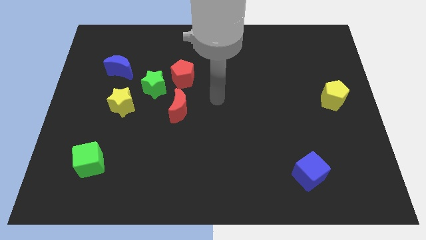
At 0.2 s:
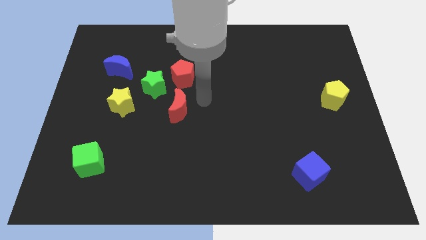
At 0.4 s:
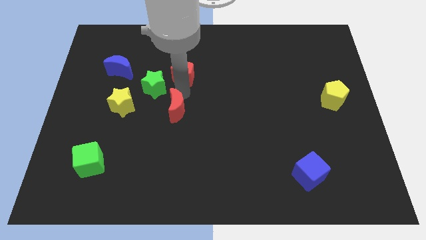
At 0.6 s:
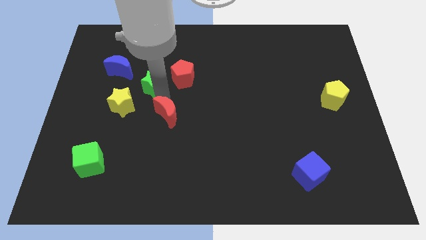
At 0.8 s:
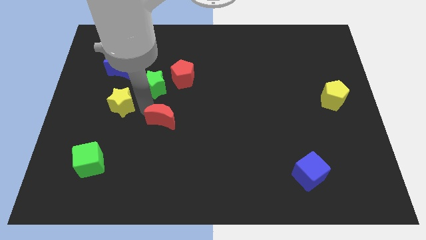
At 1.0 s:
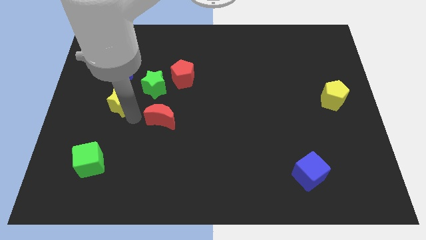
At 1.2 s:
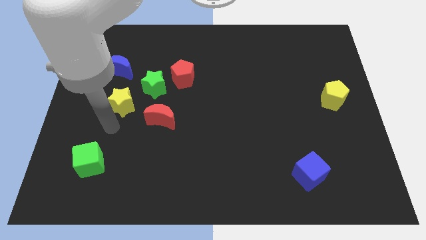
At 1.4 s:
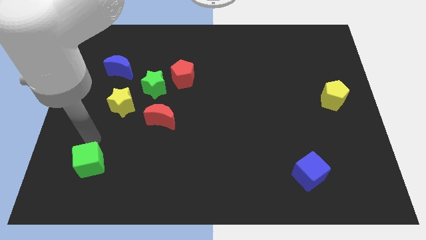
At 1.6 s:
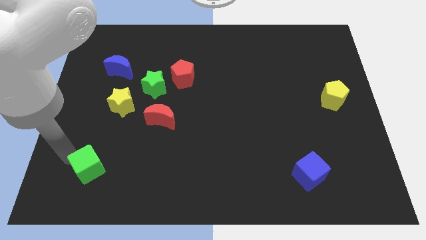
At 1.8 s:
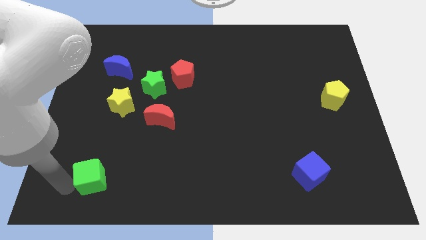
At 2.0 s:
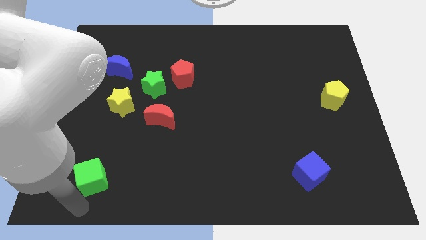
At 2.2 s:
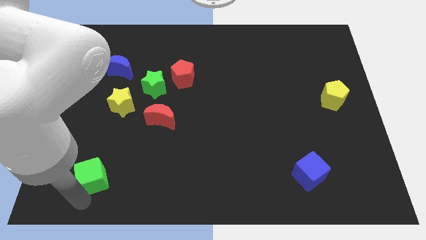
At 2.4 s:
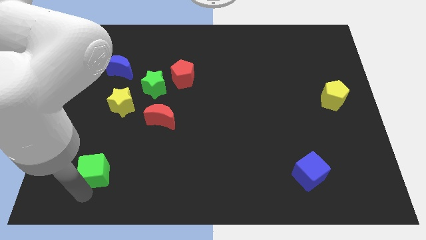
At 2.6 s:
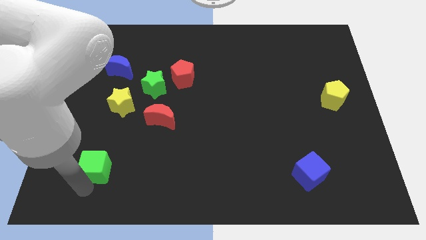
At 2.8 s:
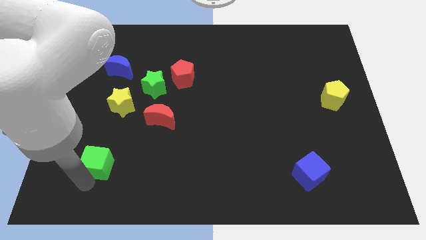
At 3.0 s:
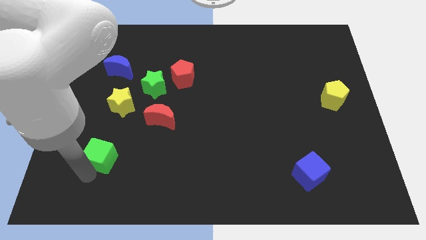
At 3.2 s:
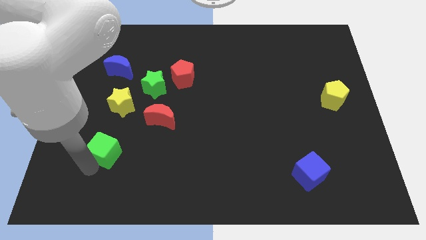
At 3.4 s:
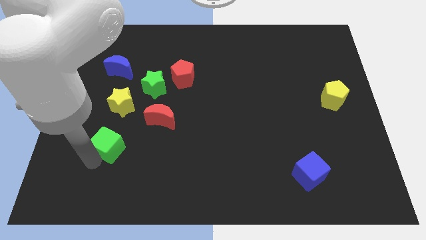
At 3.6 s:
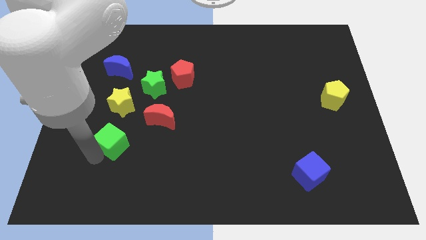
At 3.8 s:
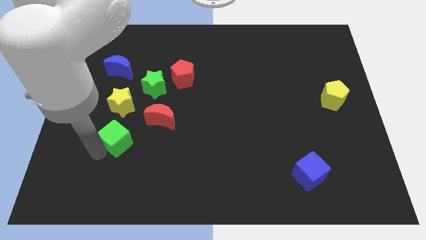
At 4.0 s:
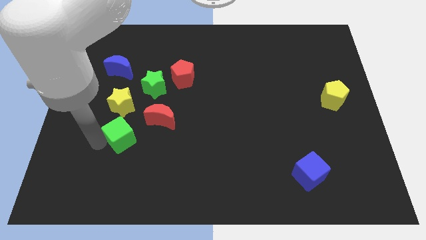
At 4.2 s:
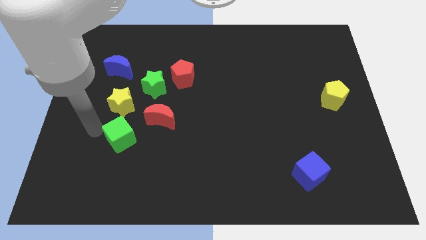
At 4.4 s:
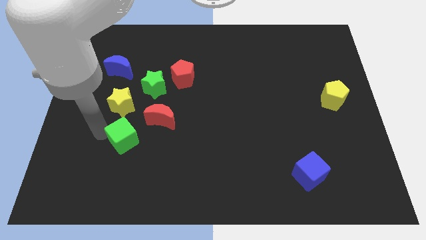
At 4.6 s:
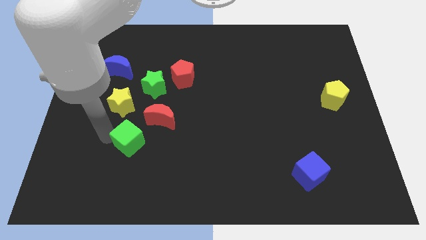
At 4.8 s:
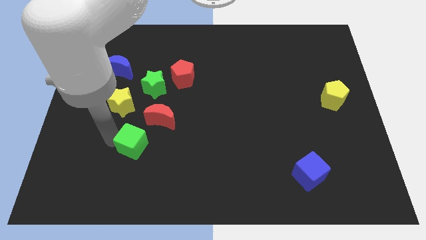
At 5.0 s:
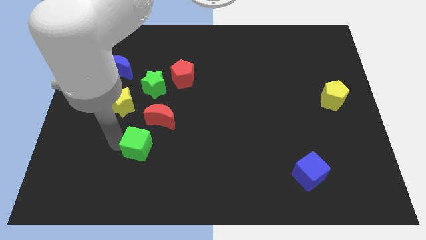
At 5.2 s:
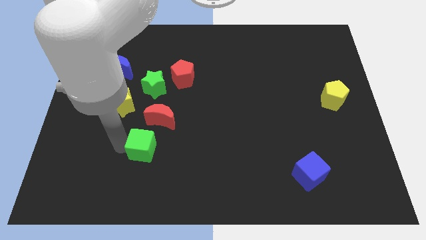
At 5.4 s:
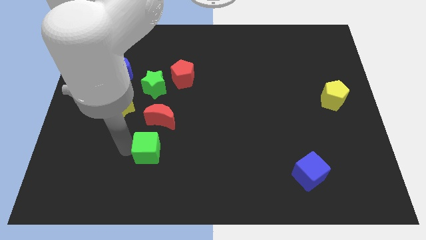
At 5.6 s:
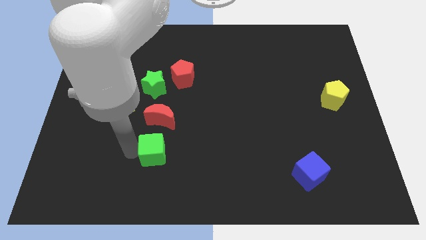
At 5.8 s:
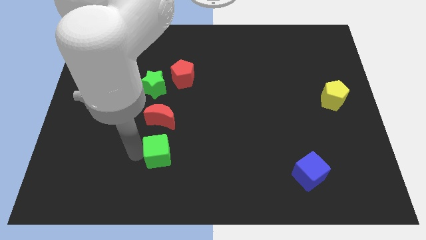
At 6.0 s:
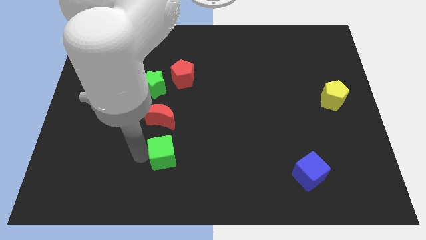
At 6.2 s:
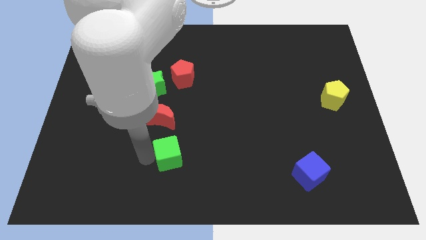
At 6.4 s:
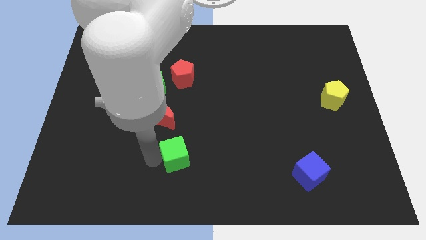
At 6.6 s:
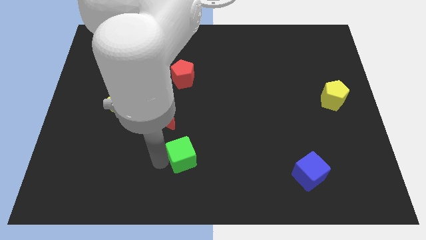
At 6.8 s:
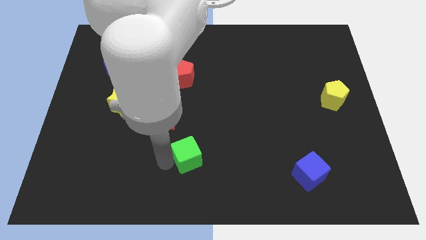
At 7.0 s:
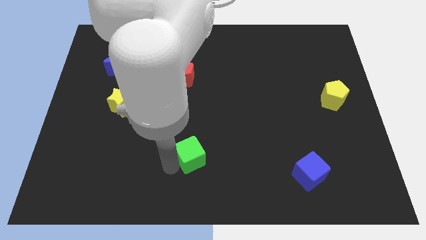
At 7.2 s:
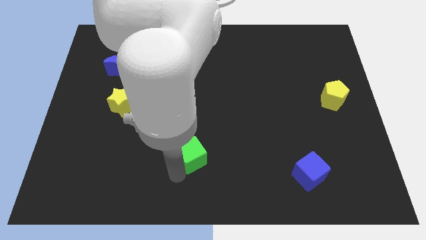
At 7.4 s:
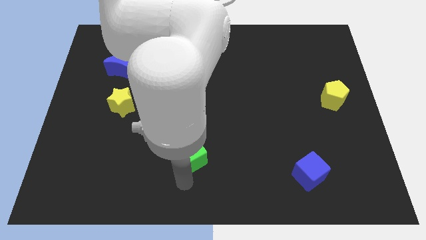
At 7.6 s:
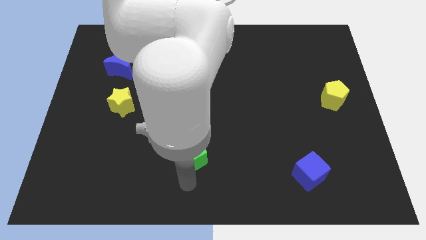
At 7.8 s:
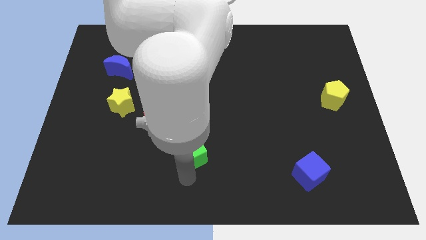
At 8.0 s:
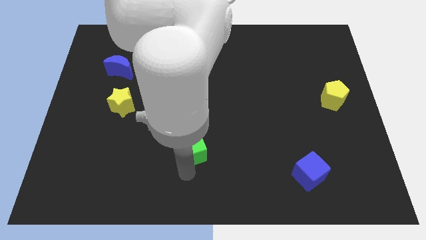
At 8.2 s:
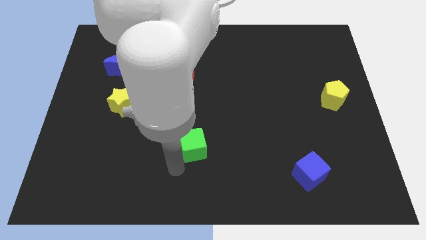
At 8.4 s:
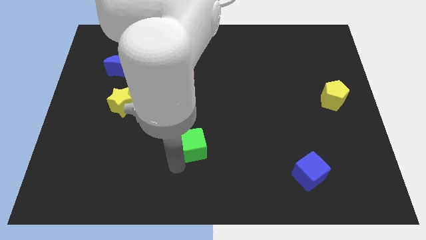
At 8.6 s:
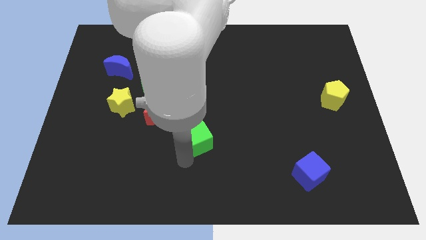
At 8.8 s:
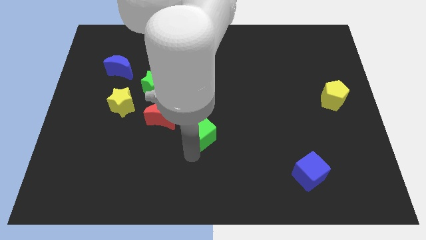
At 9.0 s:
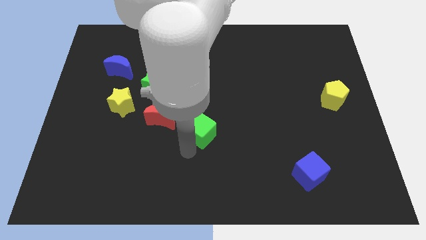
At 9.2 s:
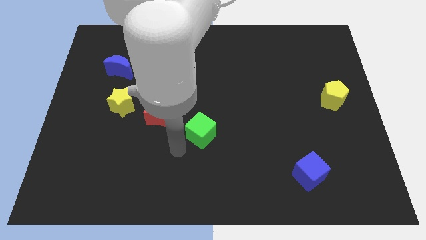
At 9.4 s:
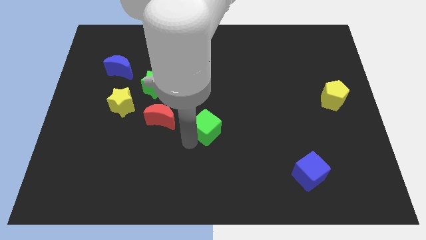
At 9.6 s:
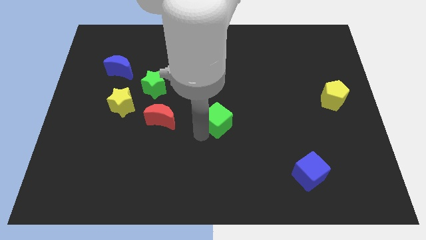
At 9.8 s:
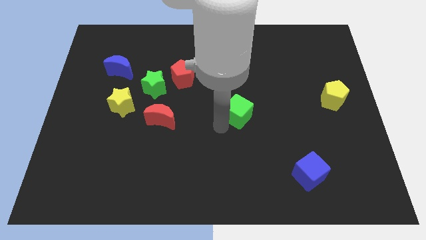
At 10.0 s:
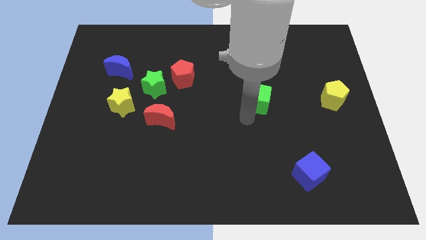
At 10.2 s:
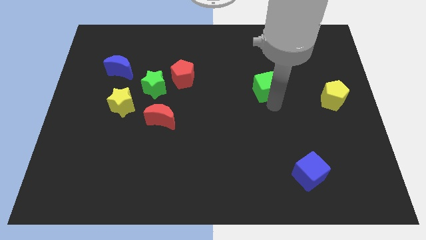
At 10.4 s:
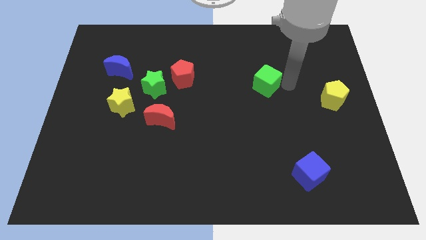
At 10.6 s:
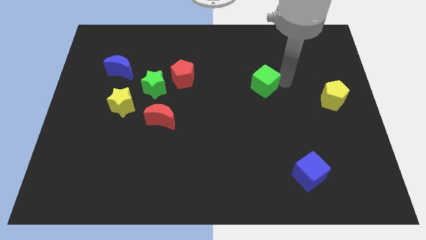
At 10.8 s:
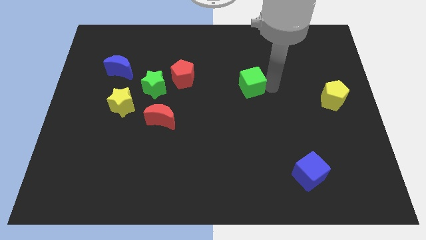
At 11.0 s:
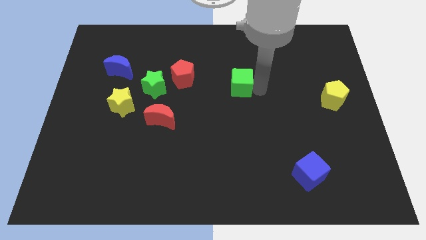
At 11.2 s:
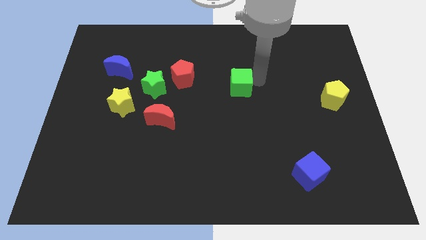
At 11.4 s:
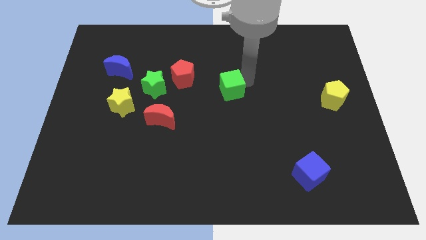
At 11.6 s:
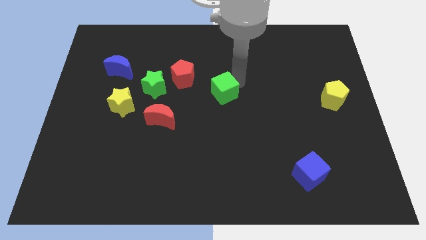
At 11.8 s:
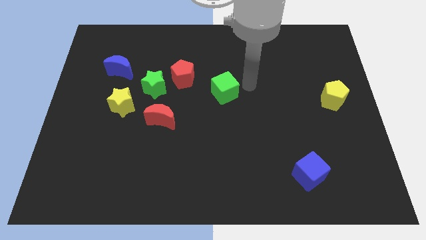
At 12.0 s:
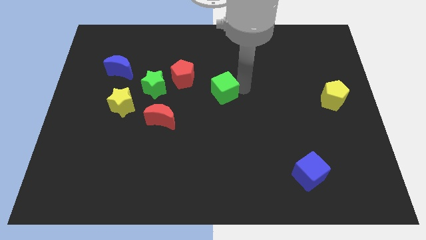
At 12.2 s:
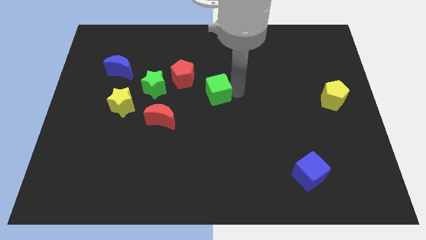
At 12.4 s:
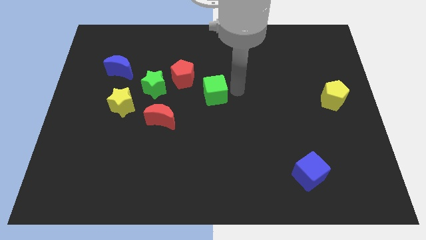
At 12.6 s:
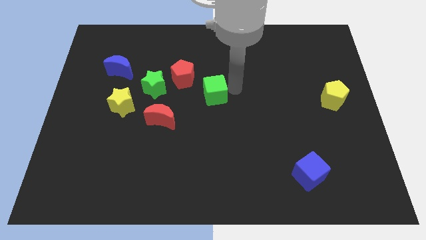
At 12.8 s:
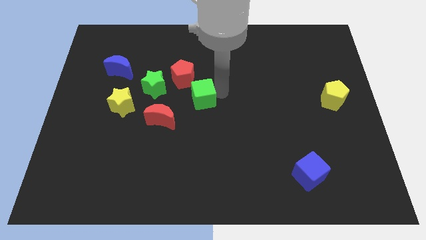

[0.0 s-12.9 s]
push the green cube to the top right of the red moon

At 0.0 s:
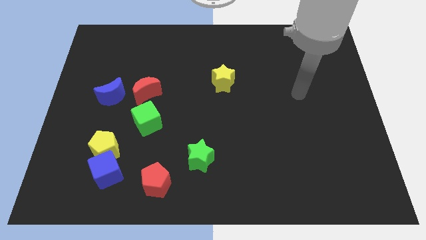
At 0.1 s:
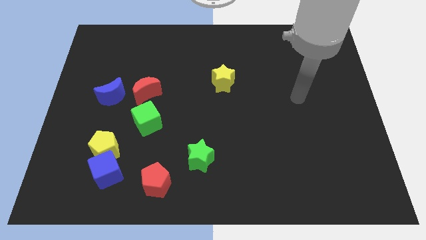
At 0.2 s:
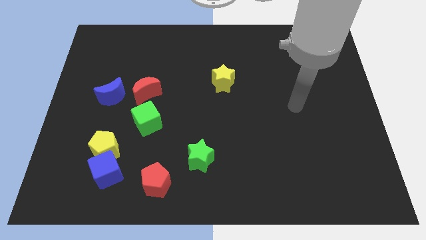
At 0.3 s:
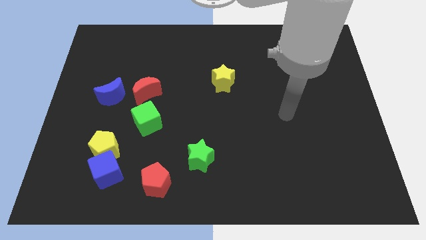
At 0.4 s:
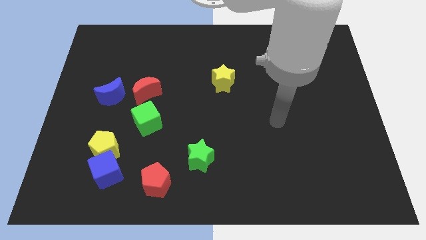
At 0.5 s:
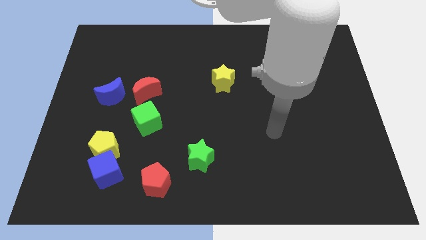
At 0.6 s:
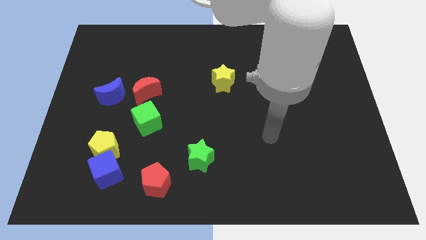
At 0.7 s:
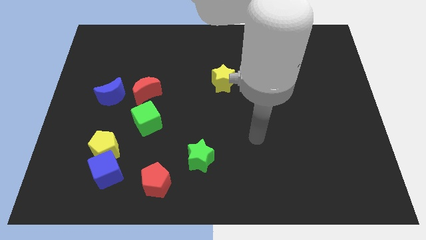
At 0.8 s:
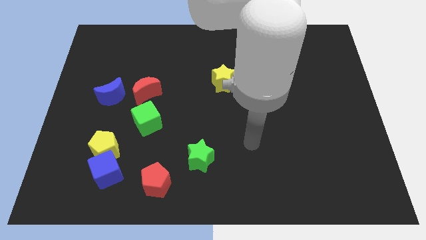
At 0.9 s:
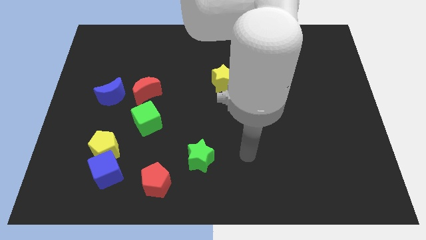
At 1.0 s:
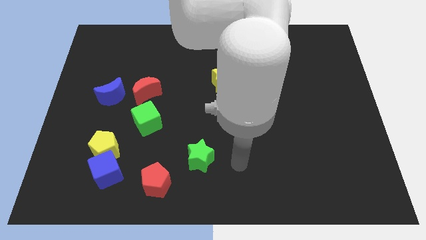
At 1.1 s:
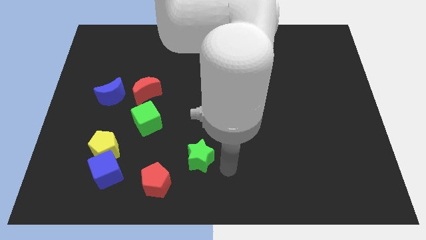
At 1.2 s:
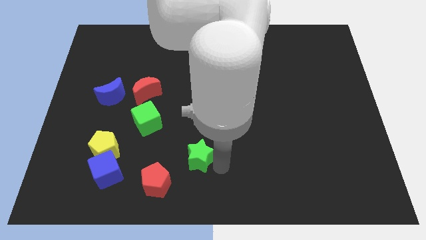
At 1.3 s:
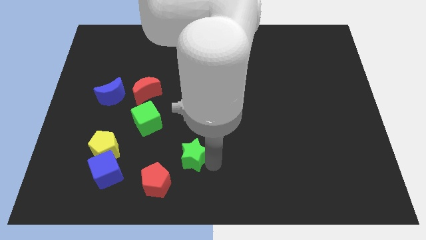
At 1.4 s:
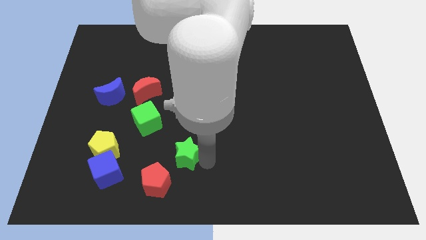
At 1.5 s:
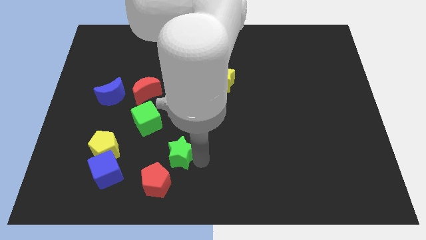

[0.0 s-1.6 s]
slide the green star to the top of the red pentagon
